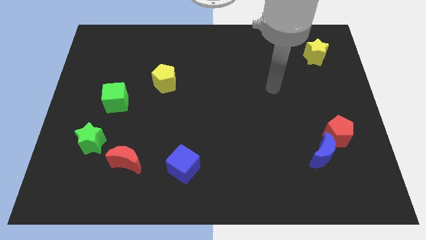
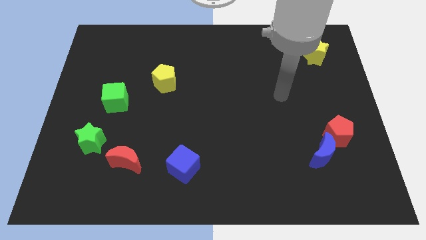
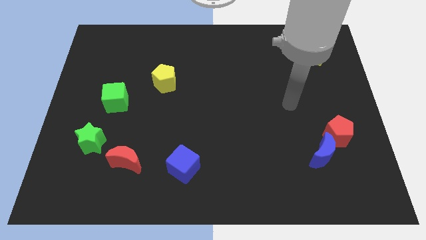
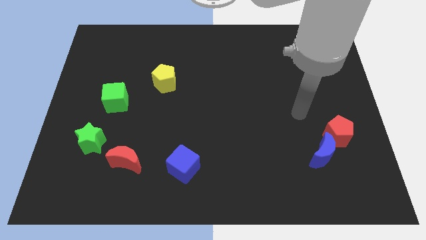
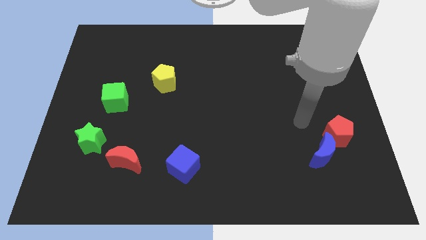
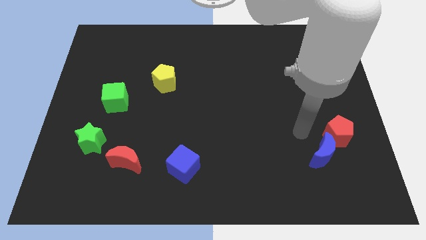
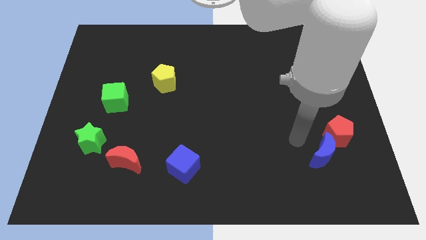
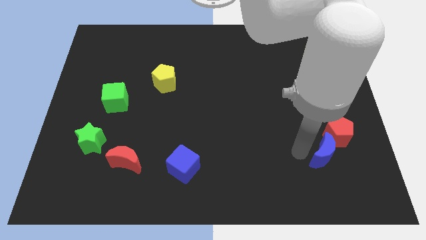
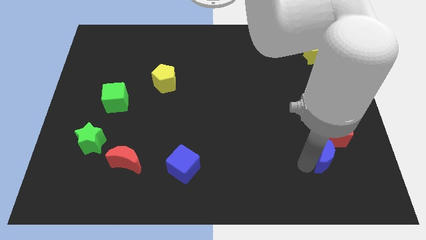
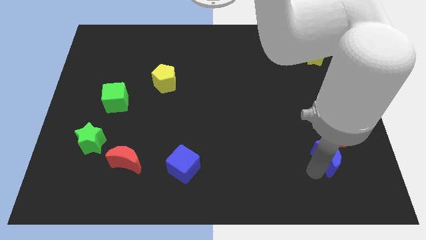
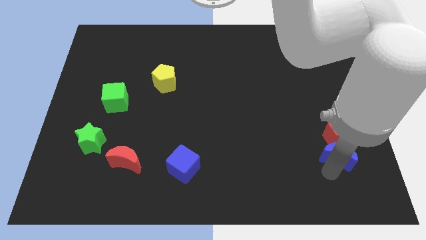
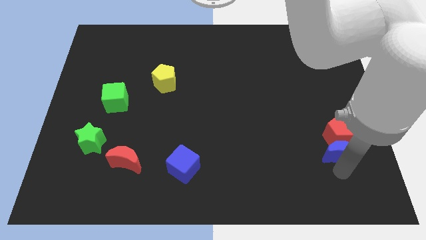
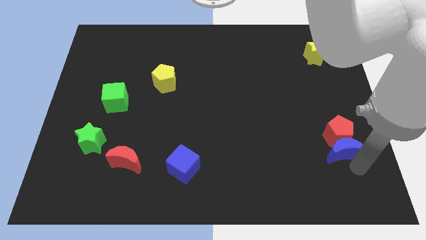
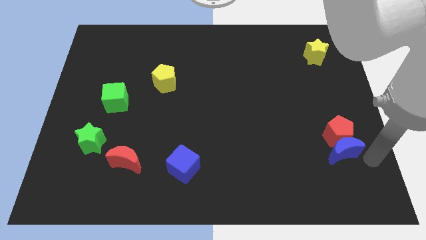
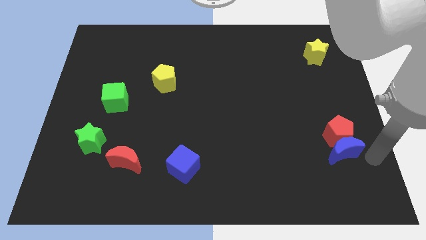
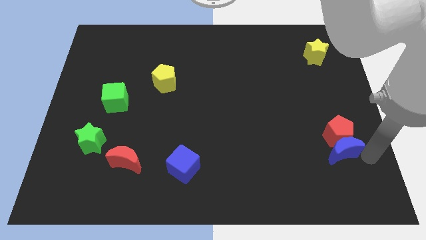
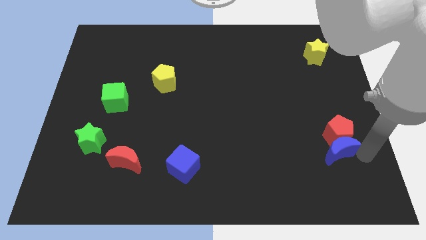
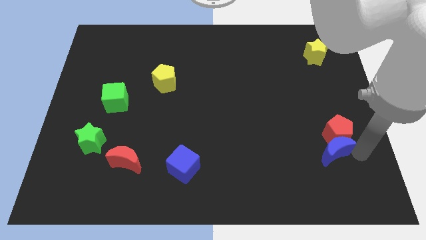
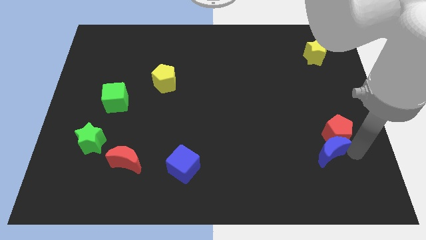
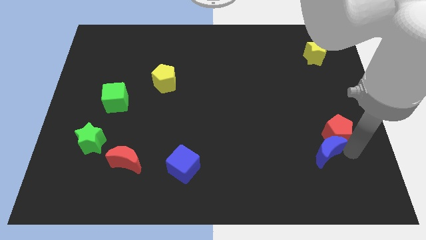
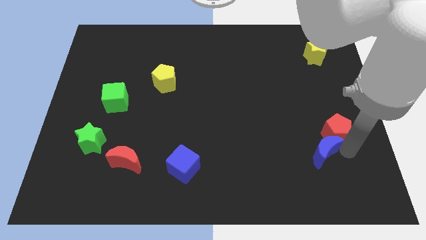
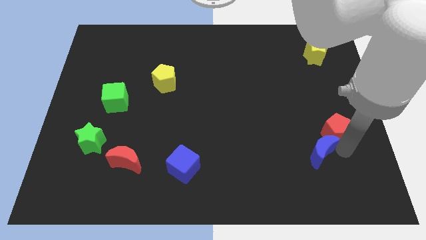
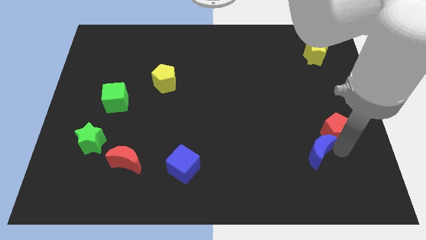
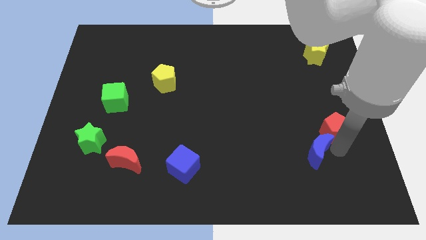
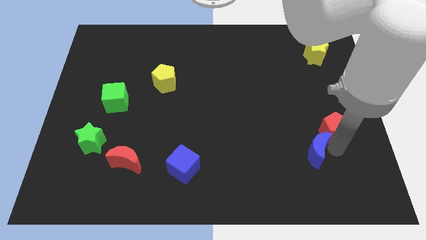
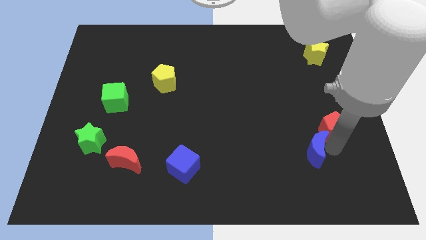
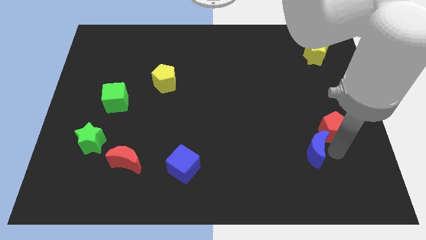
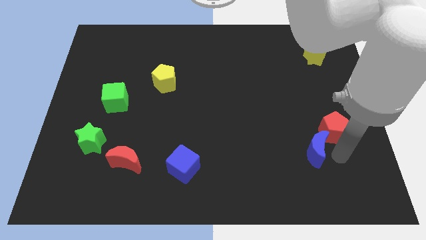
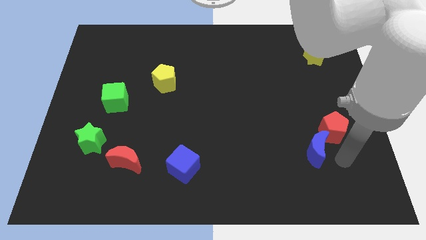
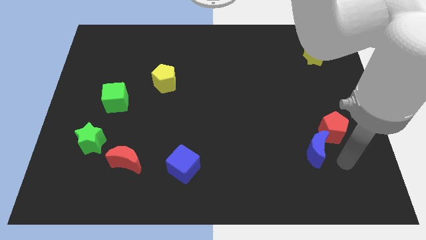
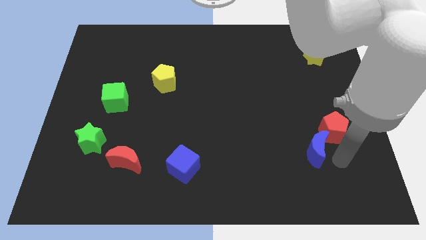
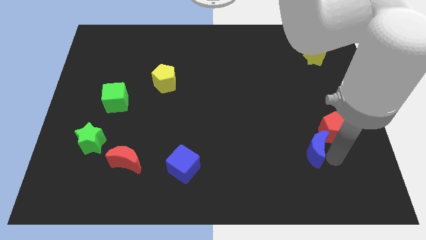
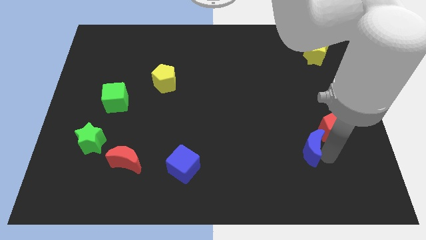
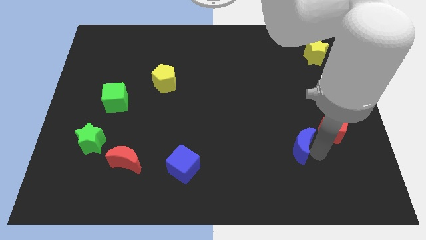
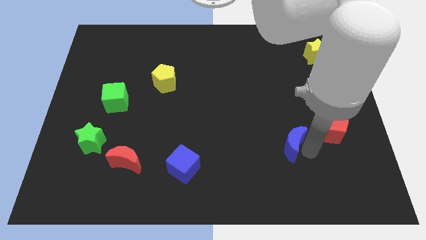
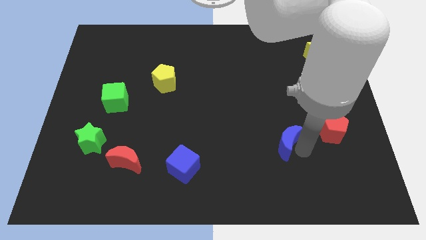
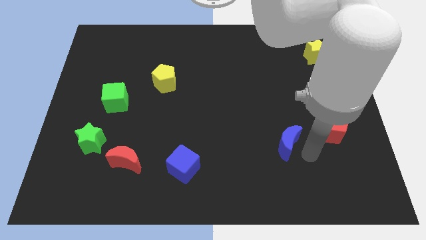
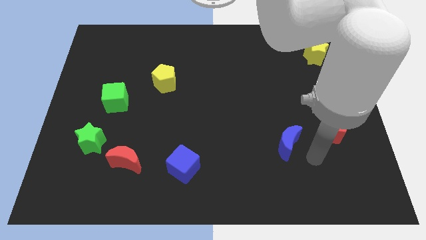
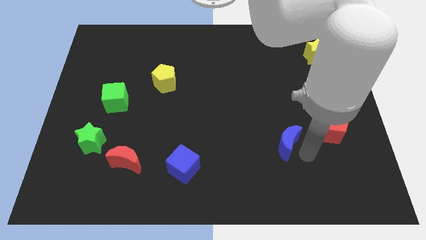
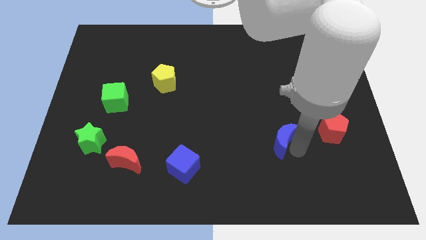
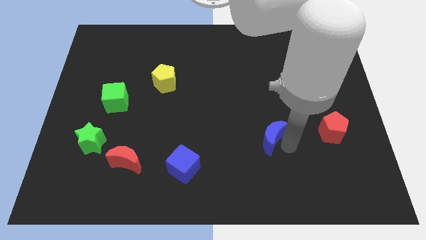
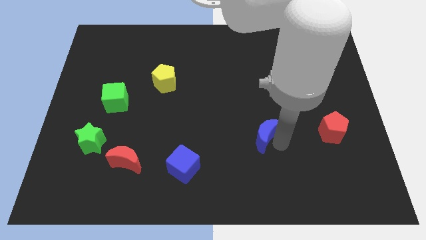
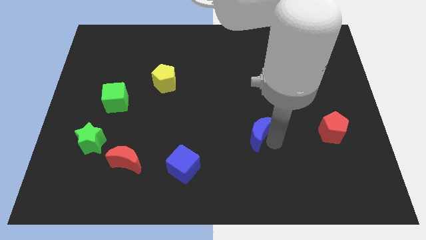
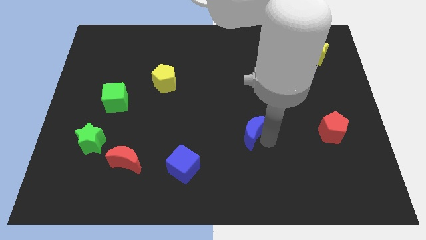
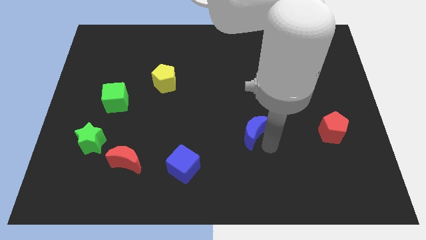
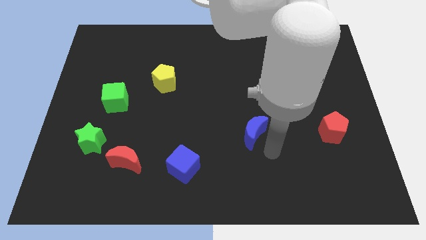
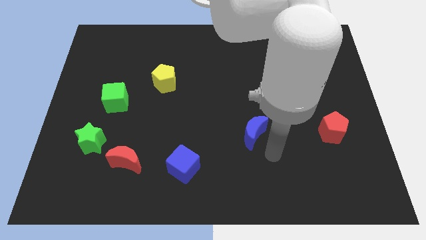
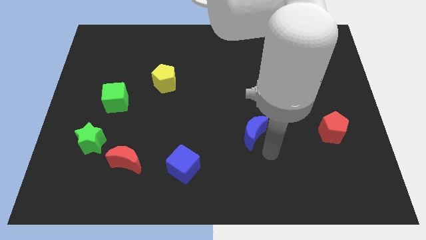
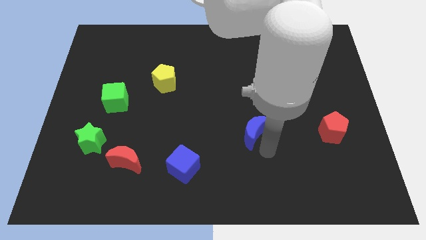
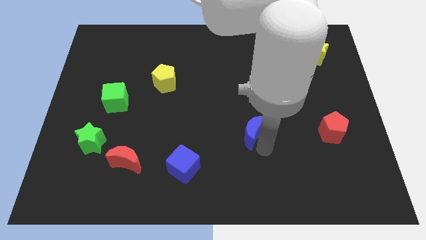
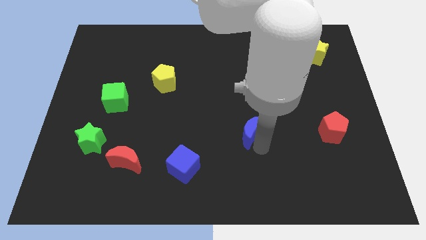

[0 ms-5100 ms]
put the blue moon to the center

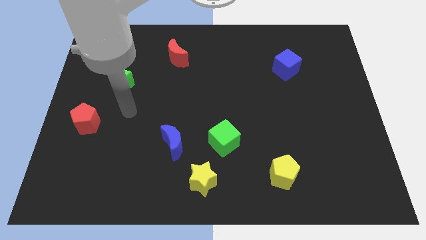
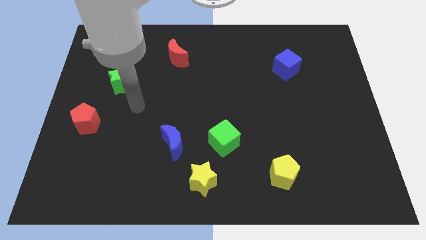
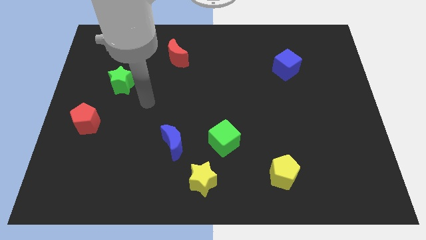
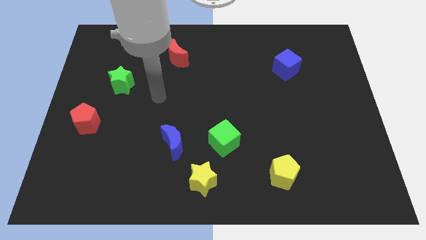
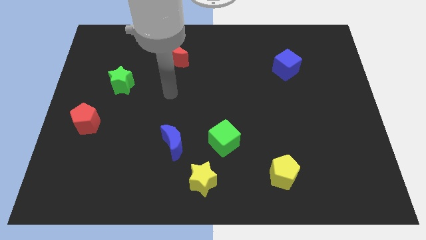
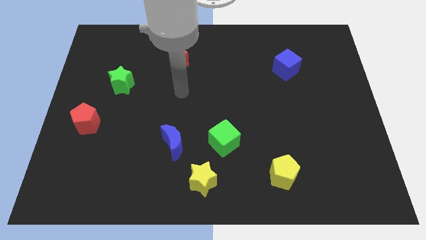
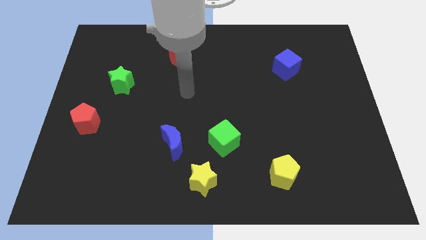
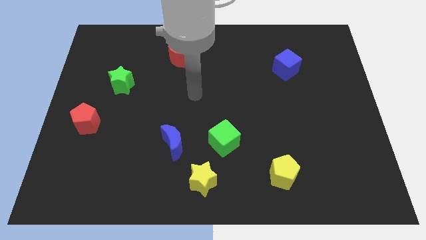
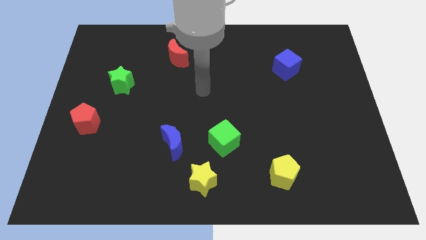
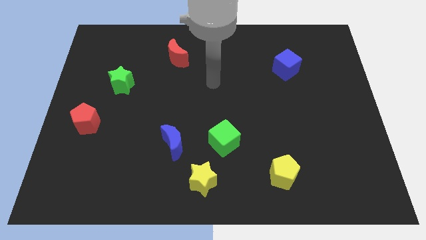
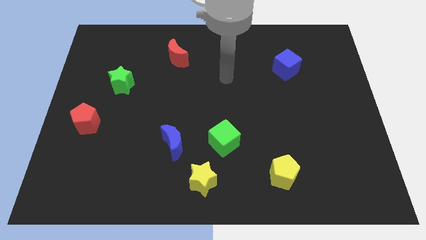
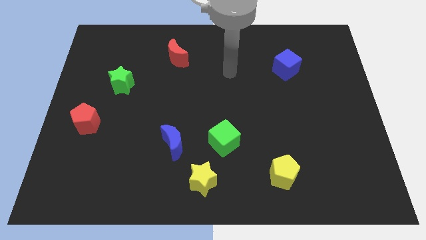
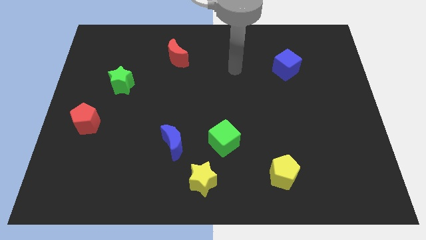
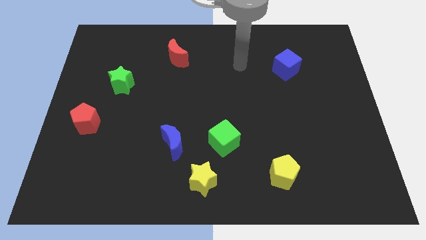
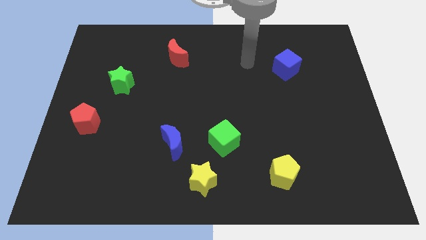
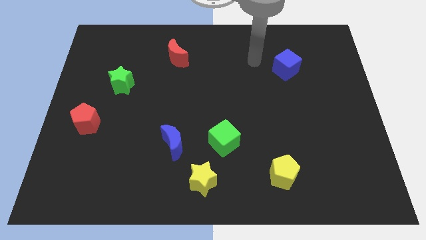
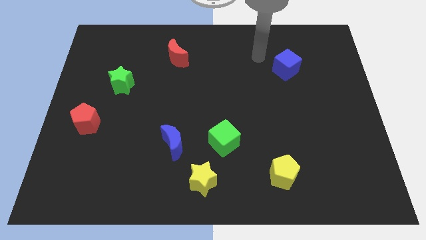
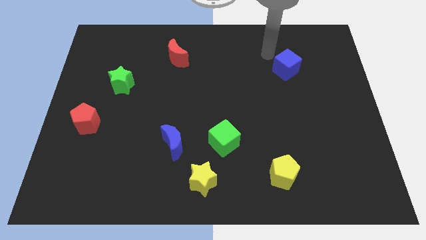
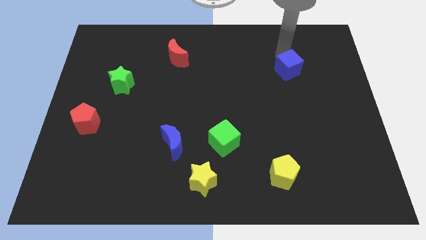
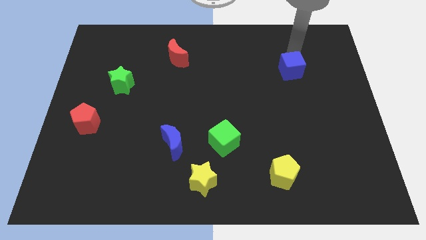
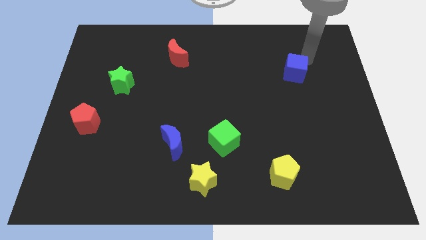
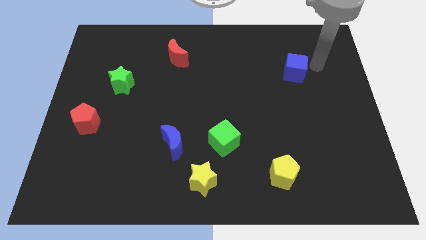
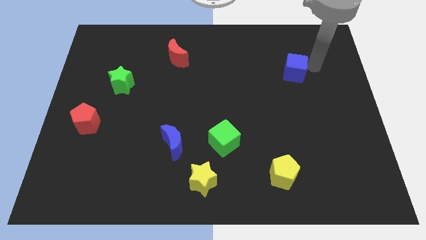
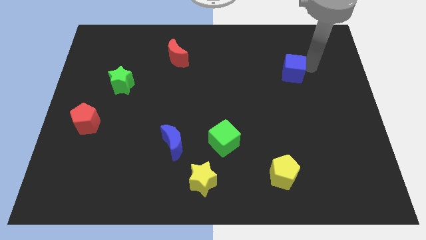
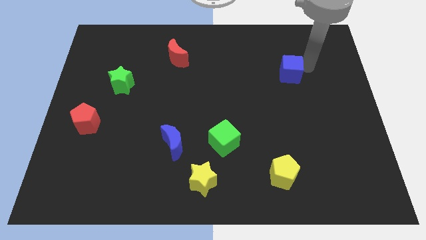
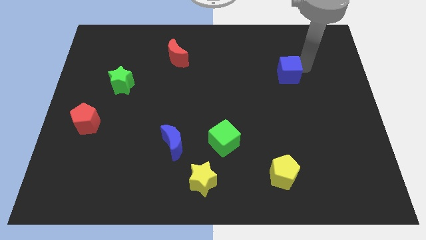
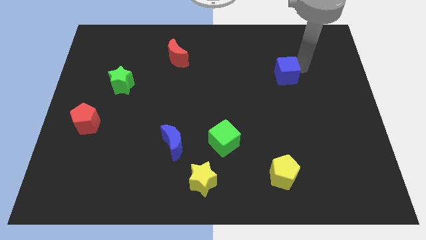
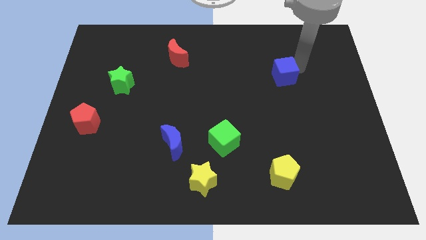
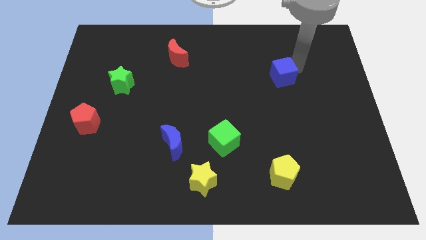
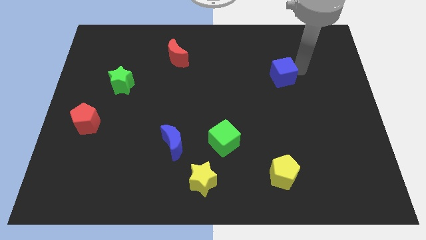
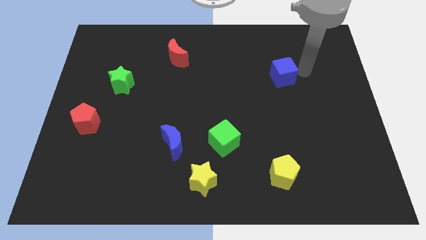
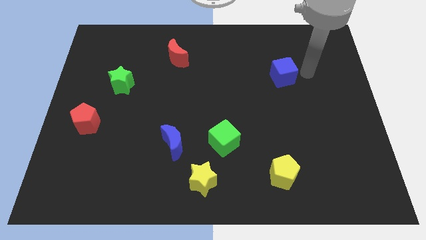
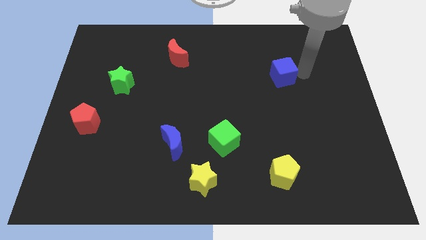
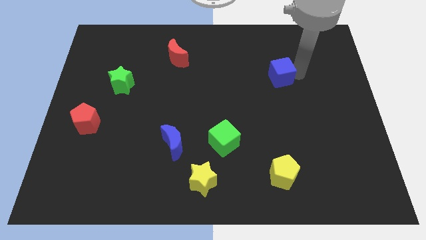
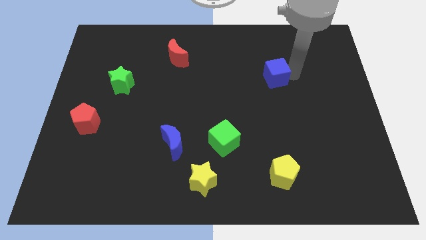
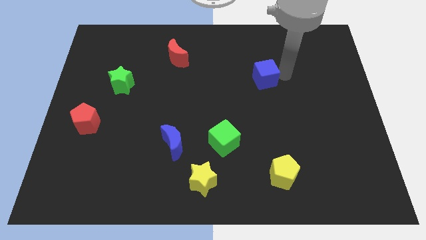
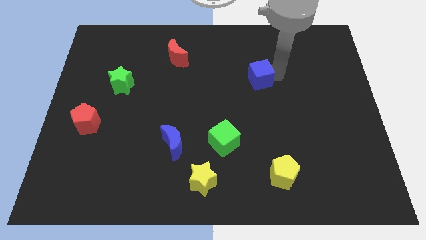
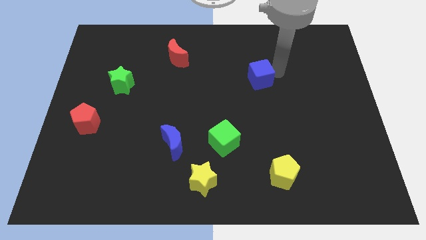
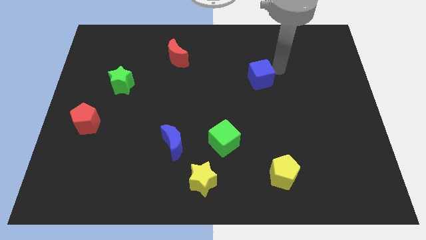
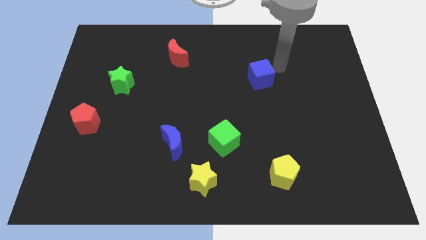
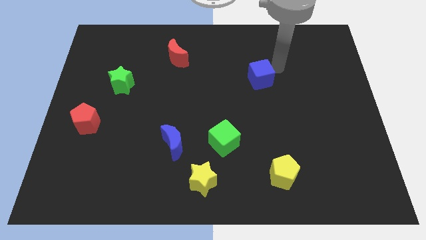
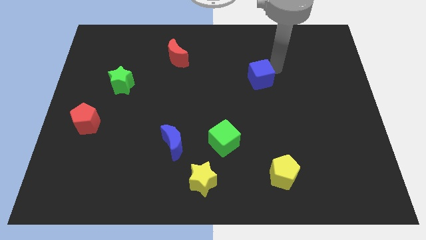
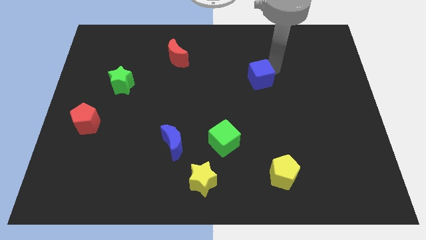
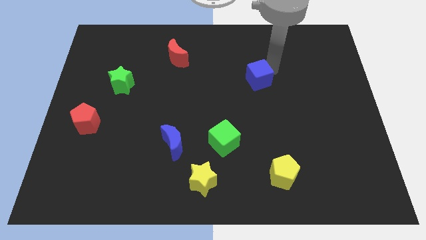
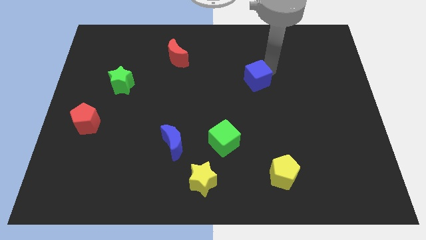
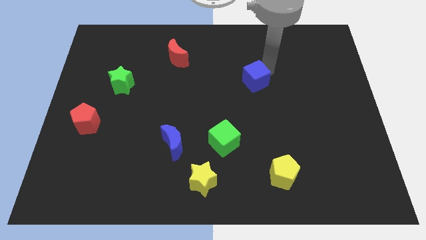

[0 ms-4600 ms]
move the blue cube to the middle
